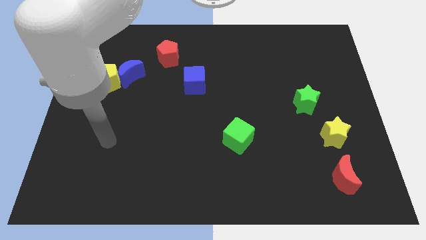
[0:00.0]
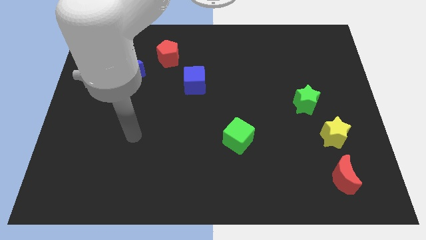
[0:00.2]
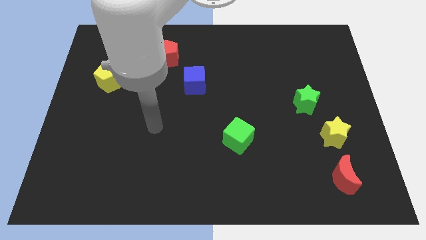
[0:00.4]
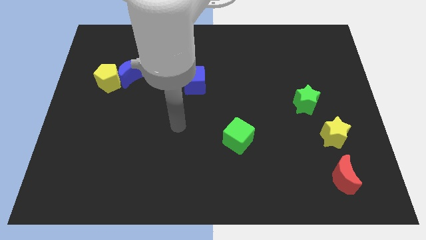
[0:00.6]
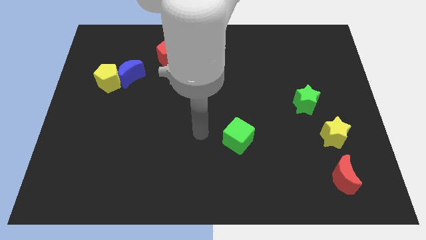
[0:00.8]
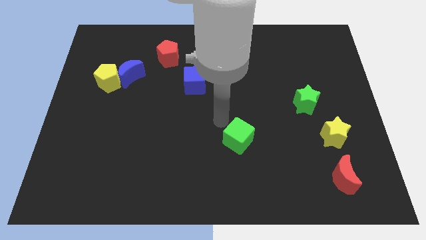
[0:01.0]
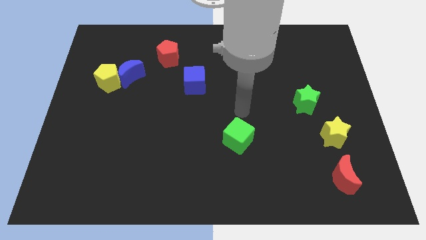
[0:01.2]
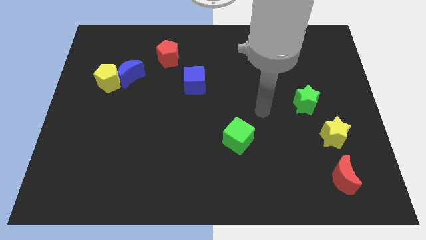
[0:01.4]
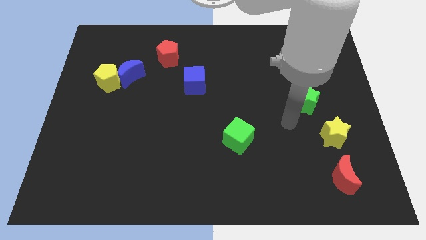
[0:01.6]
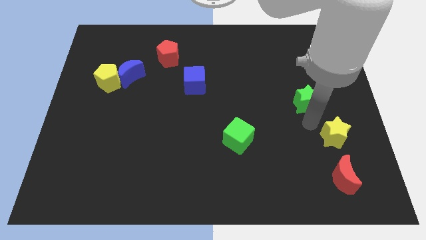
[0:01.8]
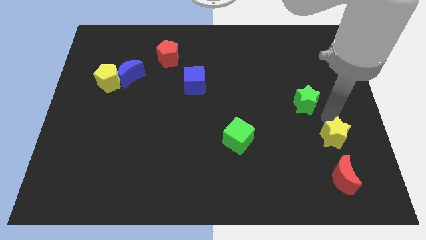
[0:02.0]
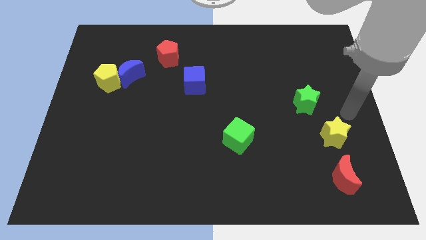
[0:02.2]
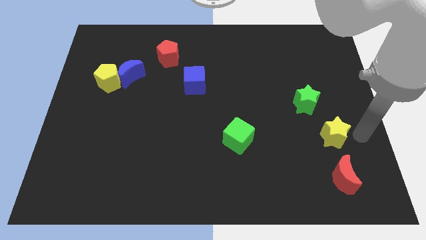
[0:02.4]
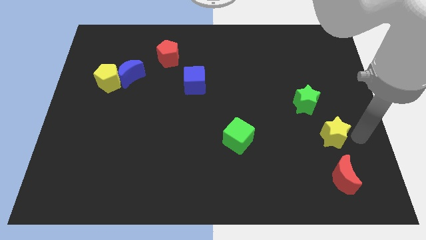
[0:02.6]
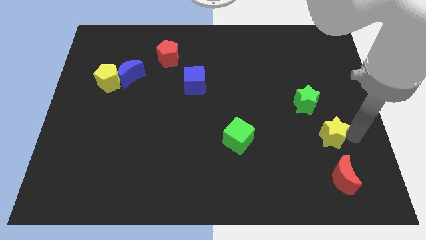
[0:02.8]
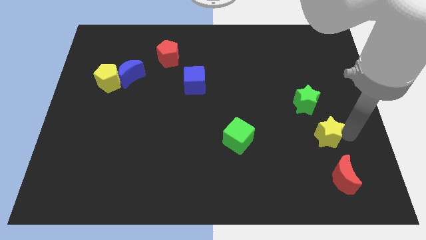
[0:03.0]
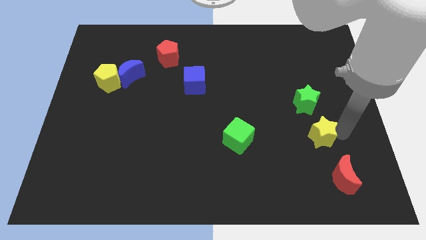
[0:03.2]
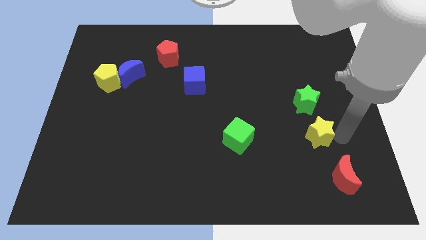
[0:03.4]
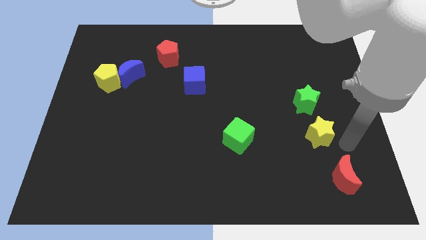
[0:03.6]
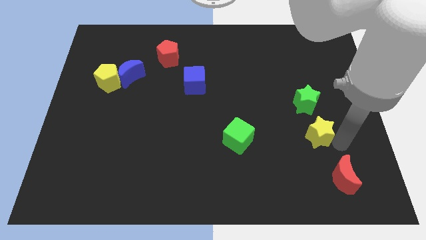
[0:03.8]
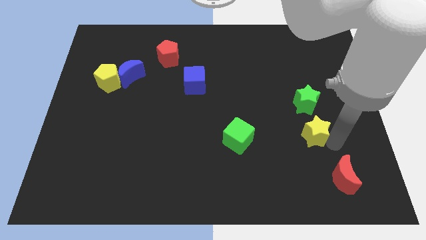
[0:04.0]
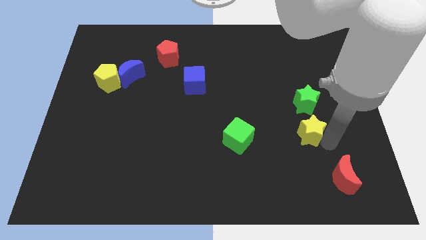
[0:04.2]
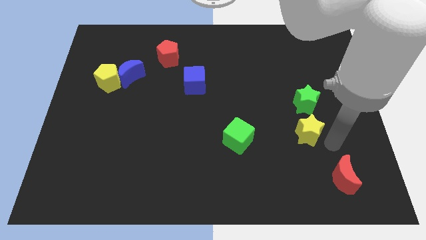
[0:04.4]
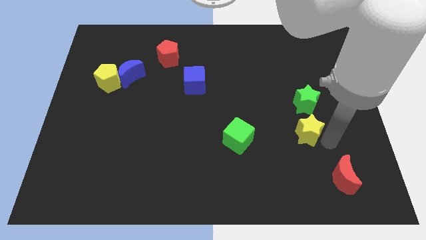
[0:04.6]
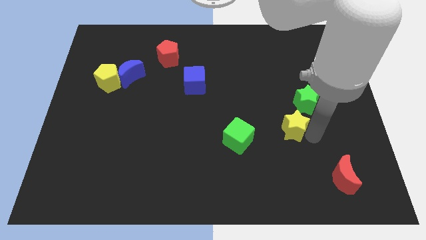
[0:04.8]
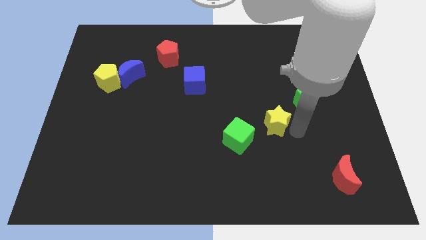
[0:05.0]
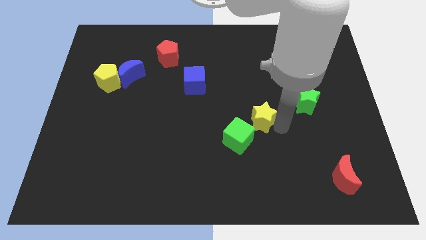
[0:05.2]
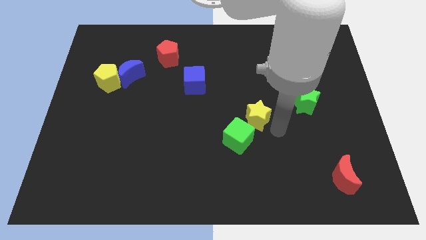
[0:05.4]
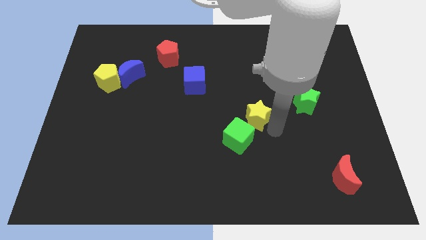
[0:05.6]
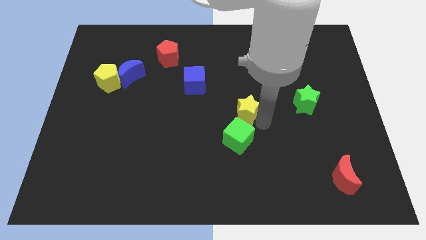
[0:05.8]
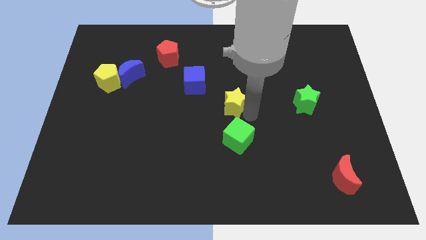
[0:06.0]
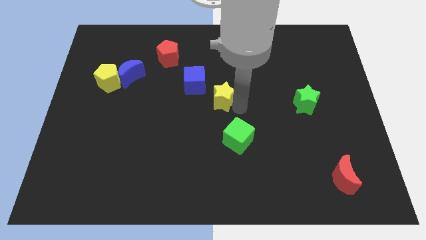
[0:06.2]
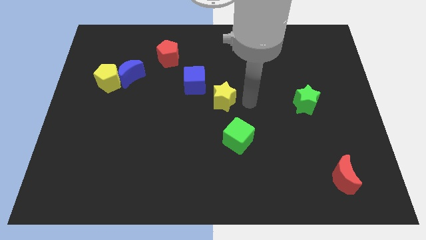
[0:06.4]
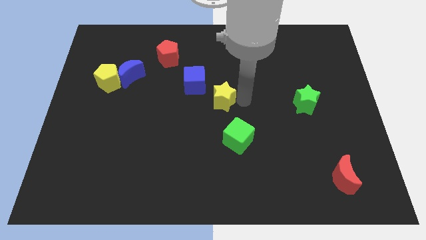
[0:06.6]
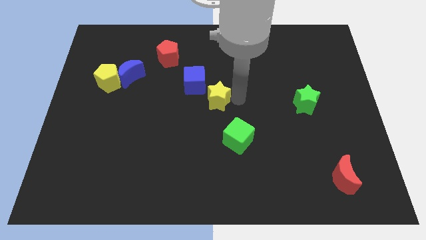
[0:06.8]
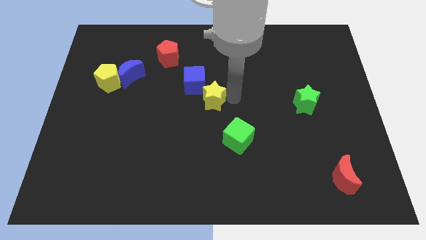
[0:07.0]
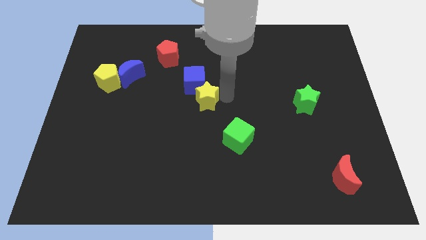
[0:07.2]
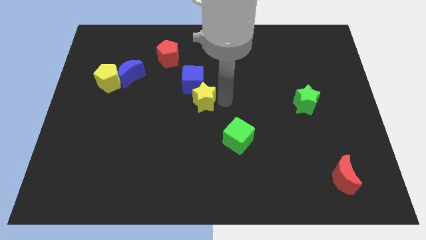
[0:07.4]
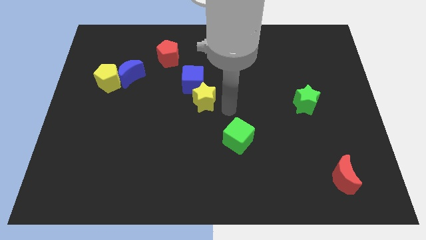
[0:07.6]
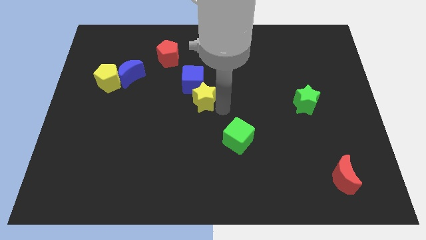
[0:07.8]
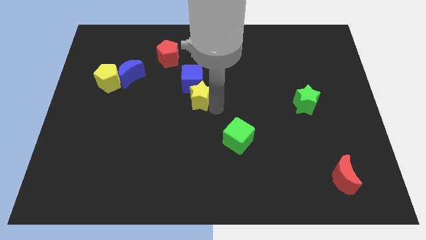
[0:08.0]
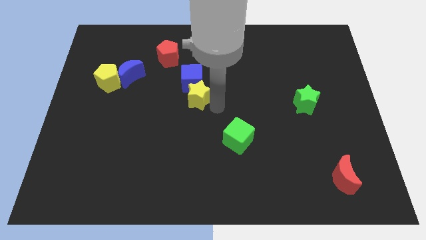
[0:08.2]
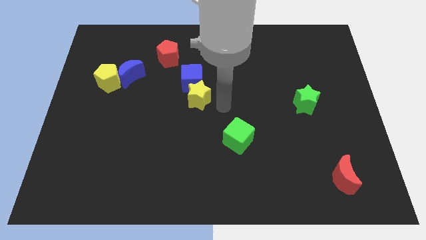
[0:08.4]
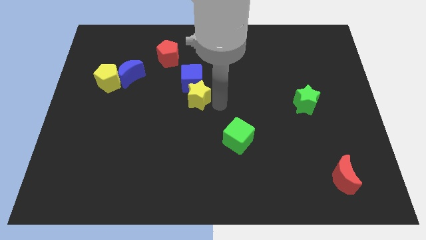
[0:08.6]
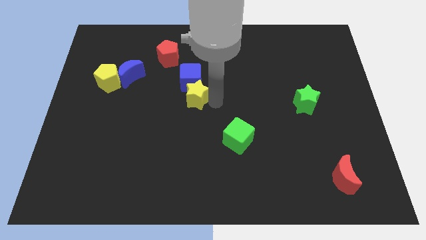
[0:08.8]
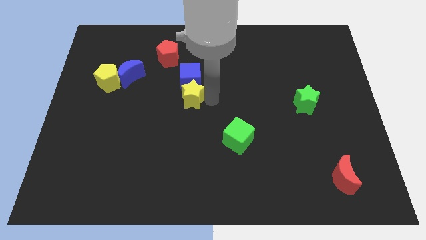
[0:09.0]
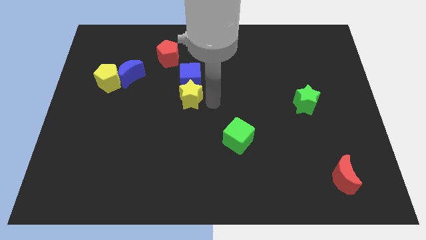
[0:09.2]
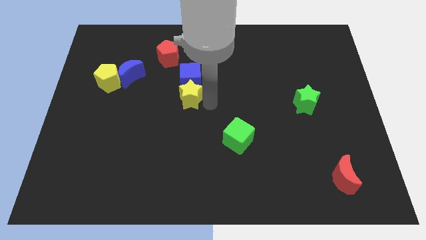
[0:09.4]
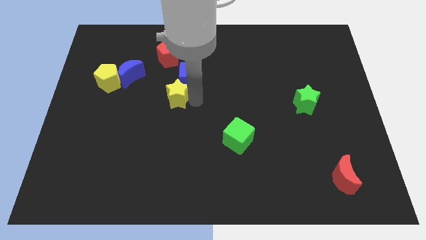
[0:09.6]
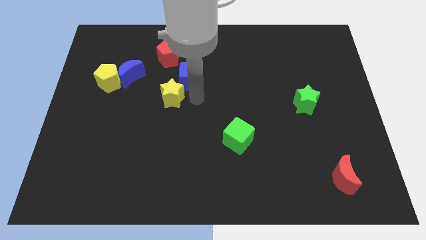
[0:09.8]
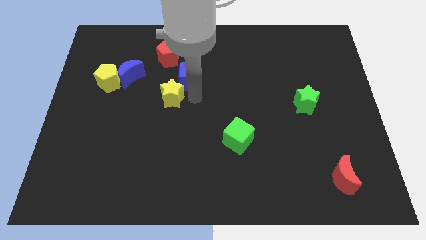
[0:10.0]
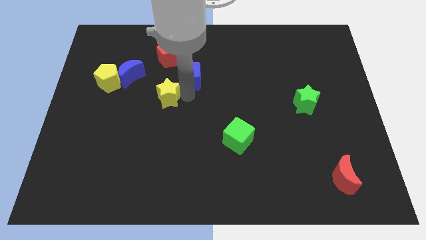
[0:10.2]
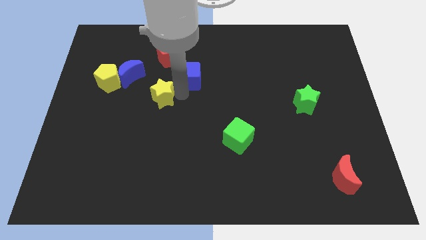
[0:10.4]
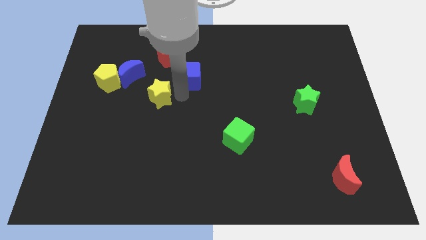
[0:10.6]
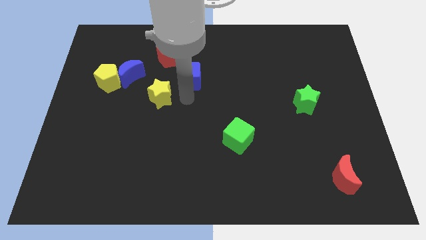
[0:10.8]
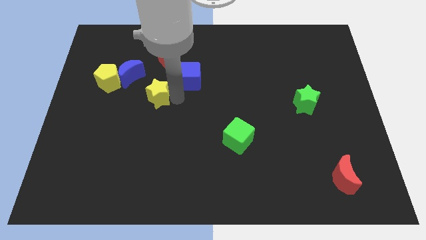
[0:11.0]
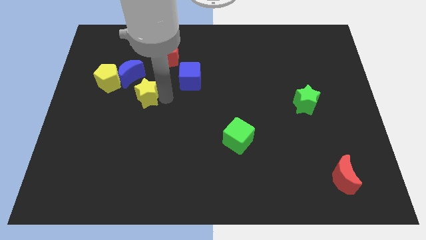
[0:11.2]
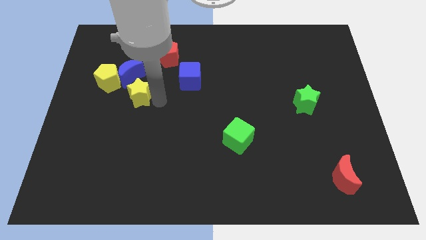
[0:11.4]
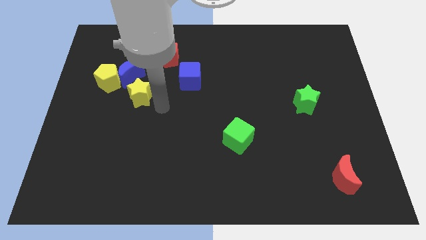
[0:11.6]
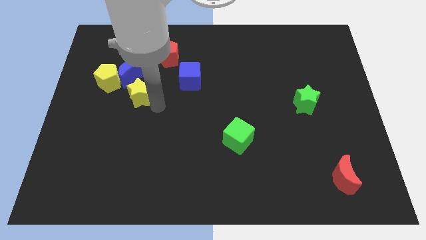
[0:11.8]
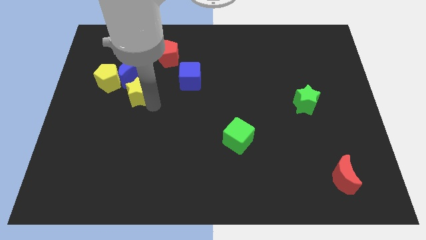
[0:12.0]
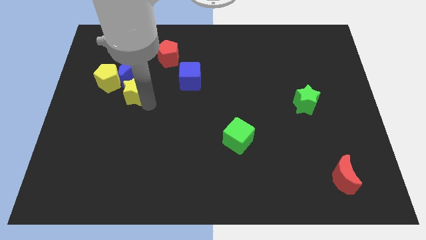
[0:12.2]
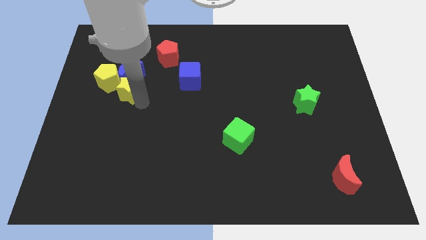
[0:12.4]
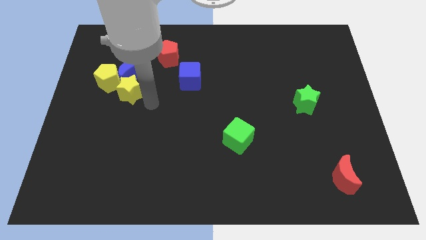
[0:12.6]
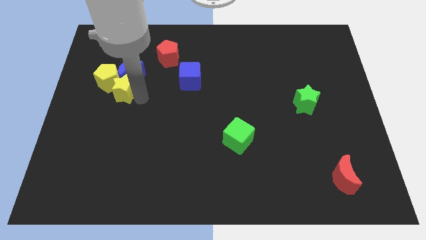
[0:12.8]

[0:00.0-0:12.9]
push the yellow star next to the yellow pentagon
